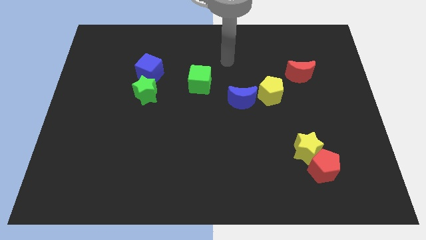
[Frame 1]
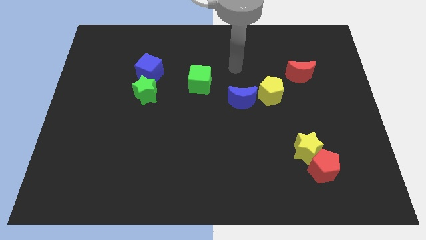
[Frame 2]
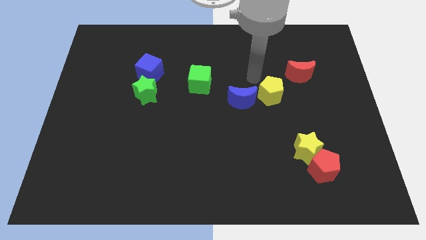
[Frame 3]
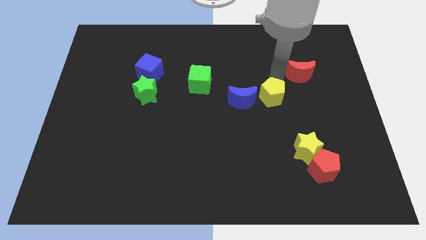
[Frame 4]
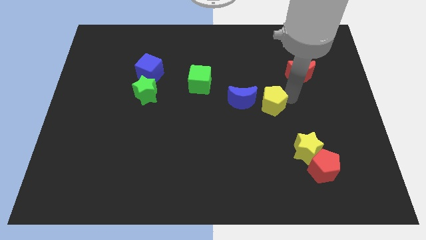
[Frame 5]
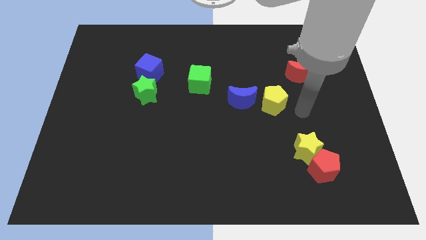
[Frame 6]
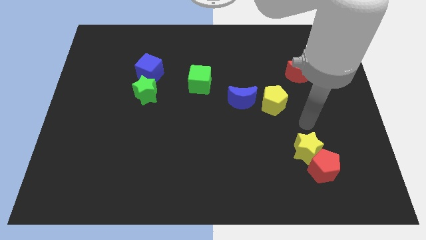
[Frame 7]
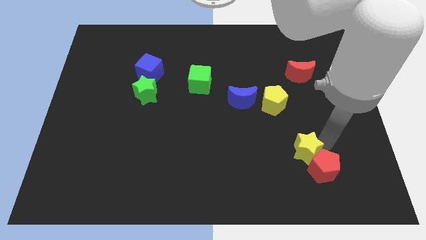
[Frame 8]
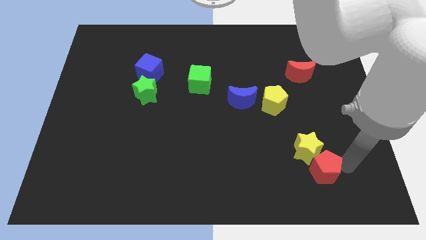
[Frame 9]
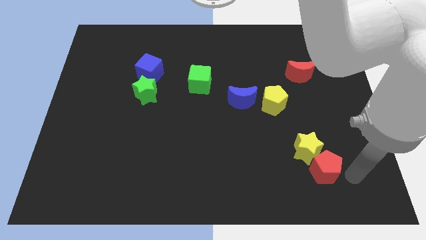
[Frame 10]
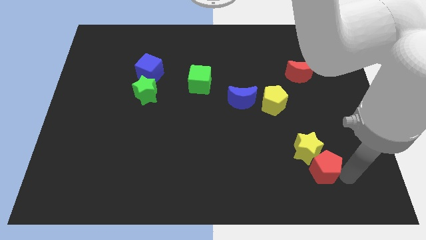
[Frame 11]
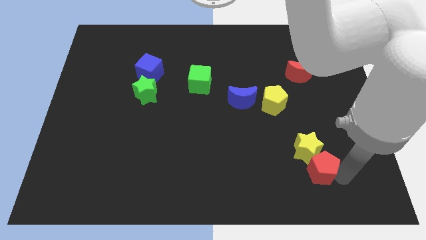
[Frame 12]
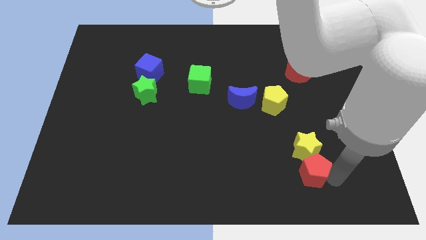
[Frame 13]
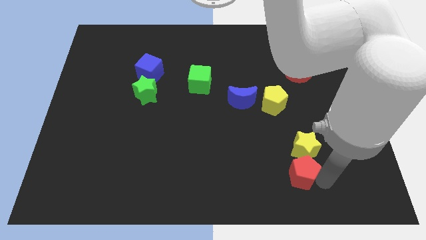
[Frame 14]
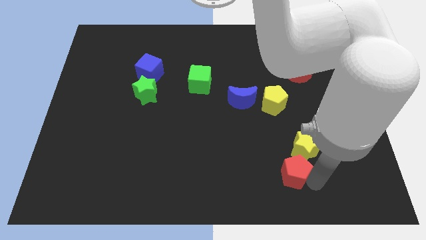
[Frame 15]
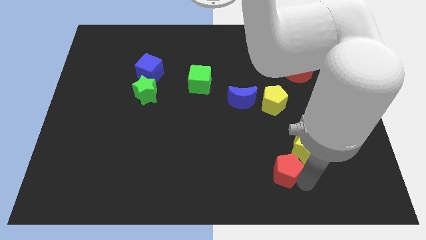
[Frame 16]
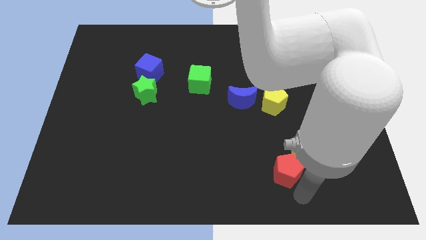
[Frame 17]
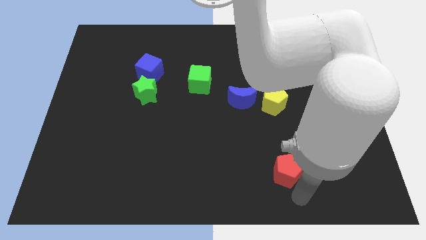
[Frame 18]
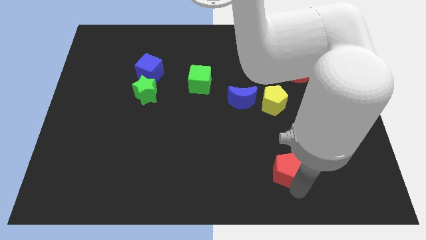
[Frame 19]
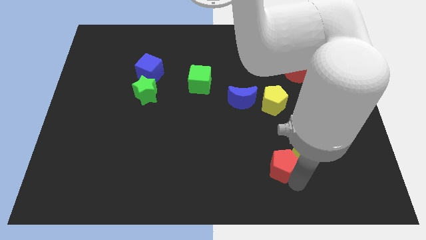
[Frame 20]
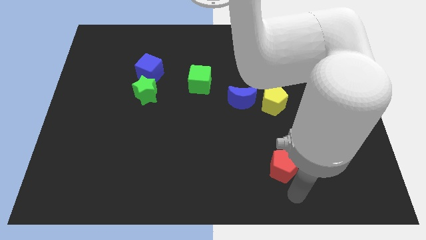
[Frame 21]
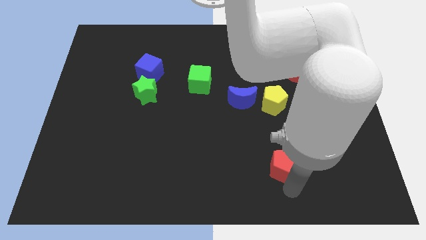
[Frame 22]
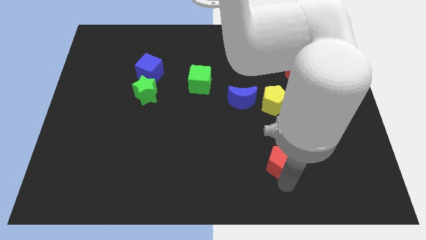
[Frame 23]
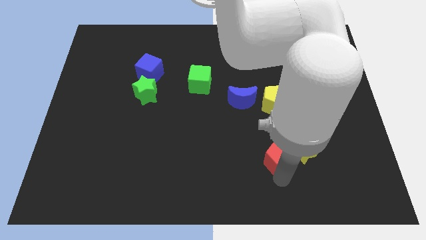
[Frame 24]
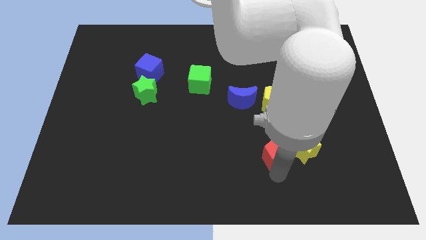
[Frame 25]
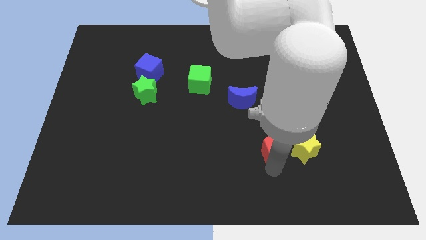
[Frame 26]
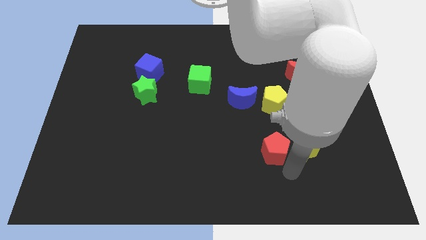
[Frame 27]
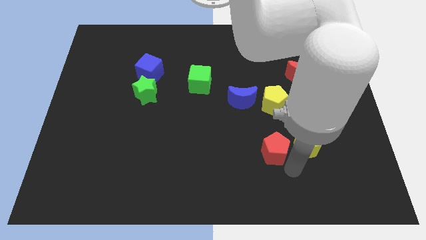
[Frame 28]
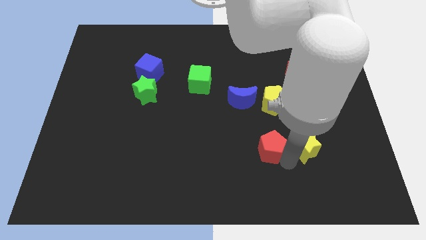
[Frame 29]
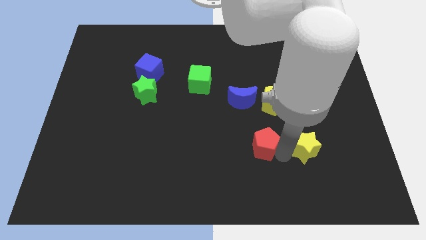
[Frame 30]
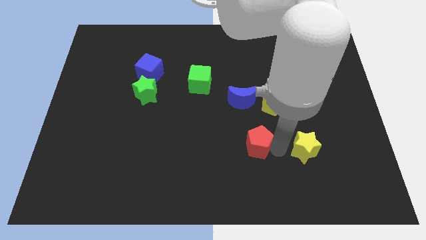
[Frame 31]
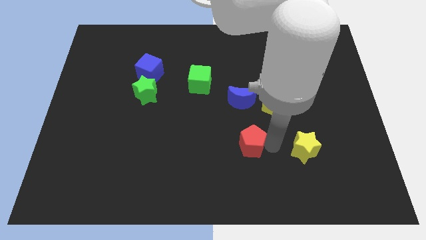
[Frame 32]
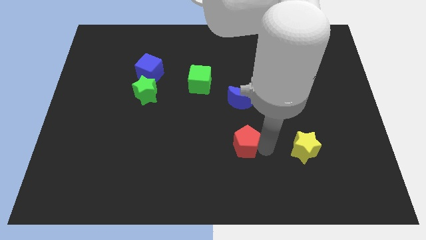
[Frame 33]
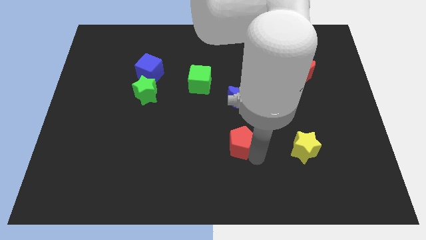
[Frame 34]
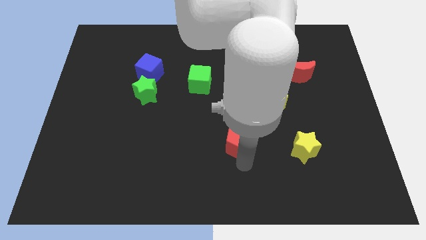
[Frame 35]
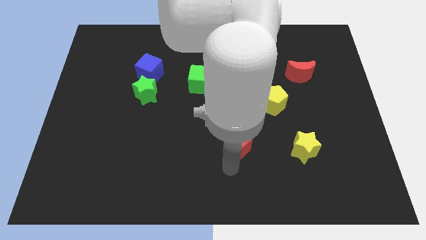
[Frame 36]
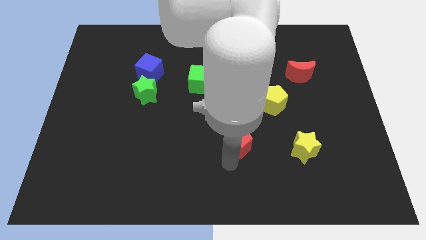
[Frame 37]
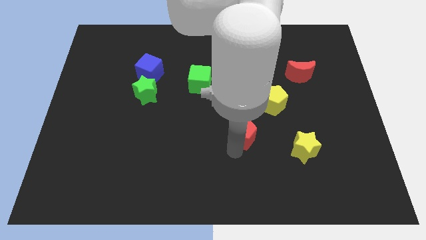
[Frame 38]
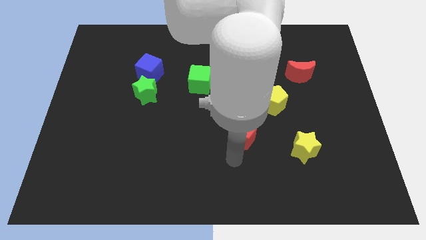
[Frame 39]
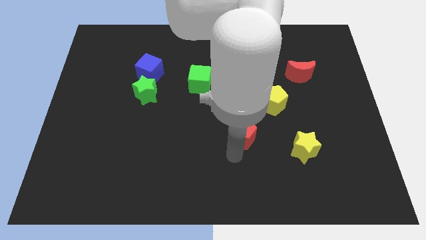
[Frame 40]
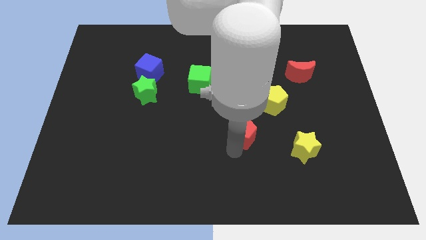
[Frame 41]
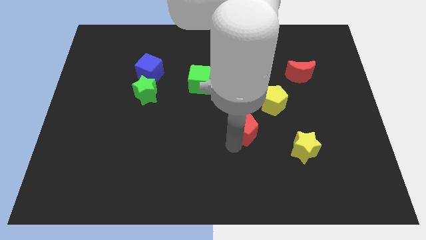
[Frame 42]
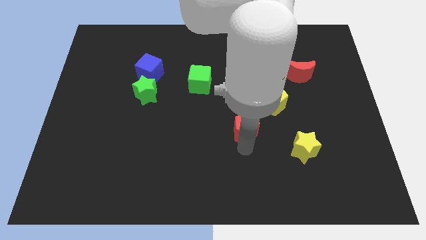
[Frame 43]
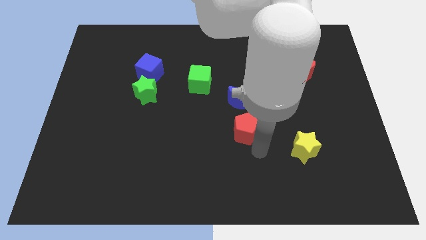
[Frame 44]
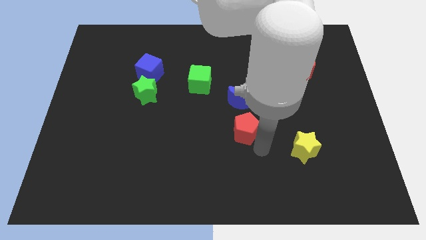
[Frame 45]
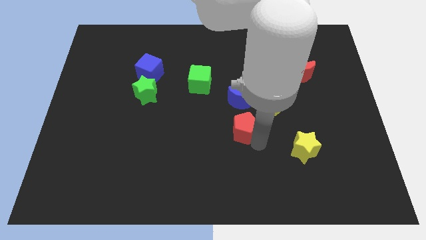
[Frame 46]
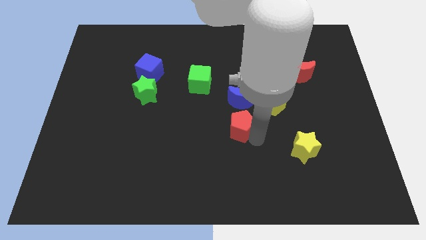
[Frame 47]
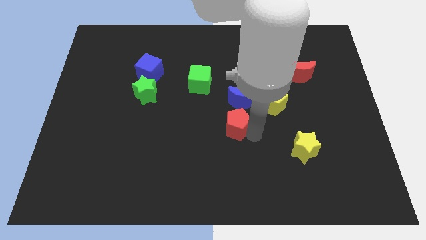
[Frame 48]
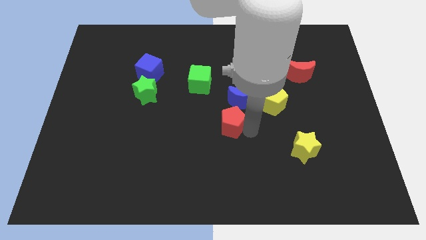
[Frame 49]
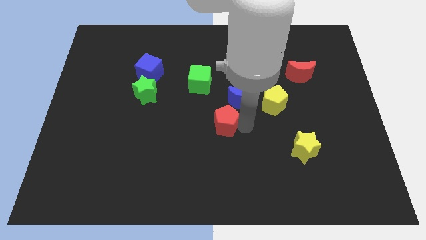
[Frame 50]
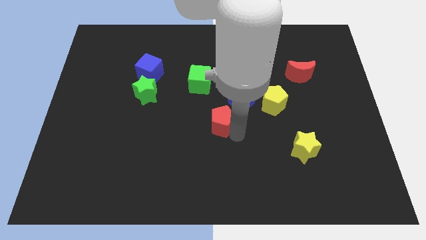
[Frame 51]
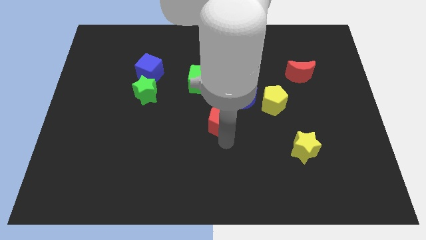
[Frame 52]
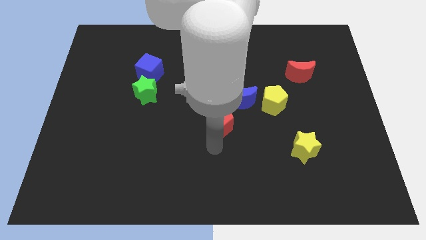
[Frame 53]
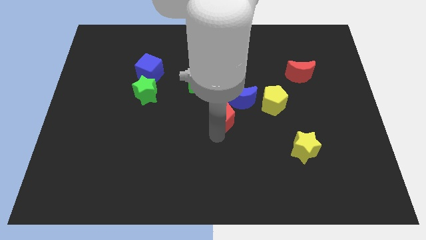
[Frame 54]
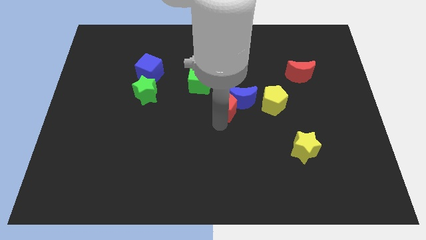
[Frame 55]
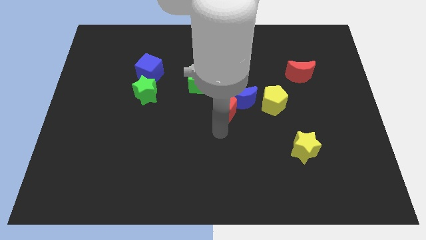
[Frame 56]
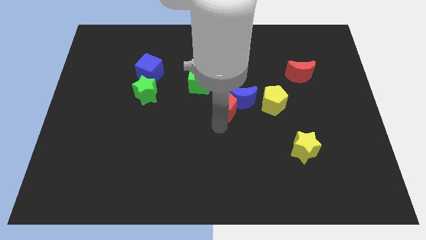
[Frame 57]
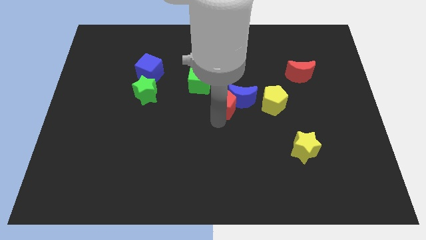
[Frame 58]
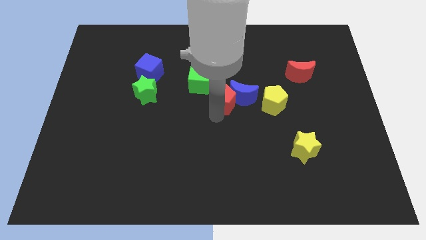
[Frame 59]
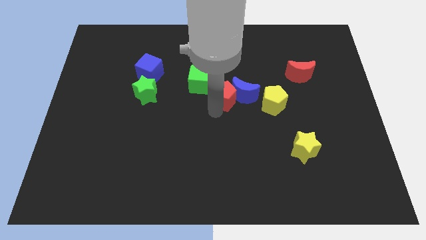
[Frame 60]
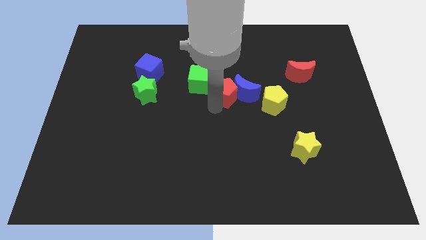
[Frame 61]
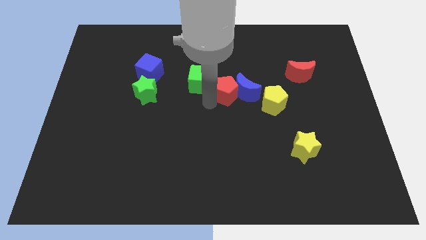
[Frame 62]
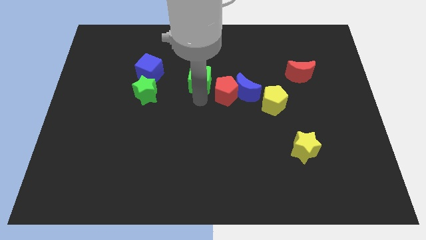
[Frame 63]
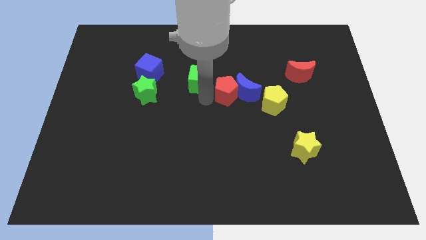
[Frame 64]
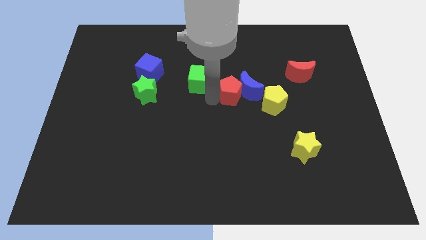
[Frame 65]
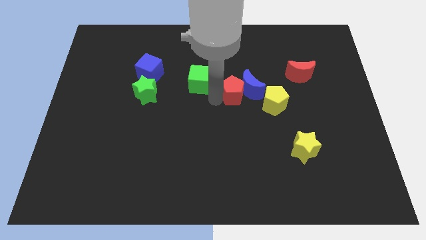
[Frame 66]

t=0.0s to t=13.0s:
put the red pentagon to the top left side of the yellow pentagon
